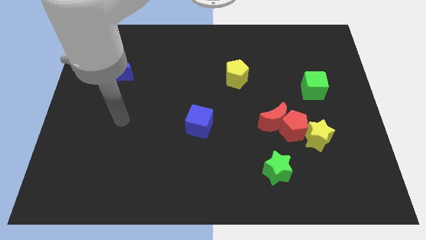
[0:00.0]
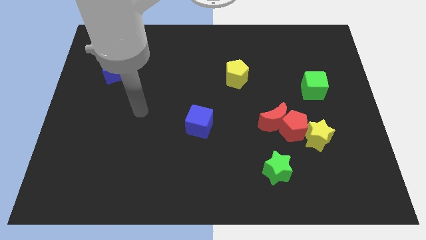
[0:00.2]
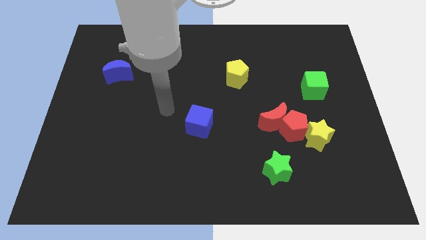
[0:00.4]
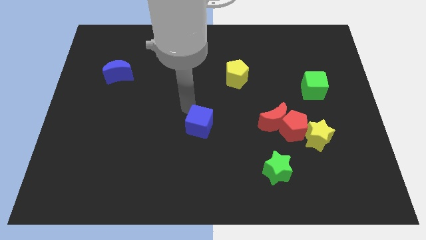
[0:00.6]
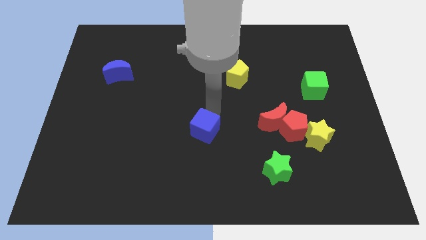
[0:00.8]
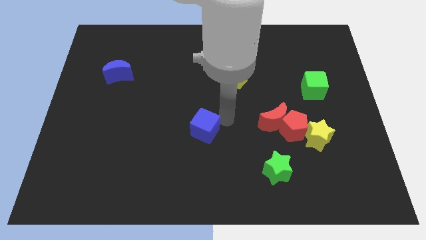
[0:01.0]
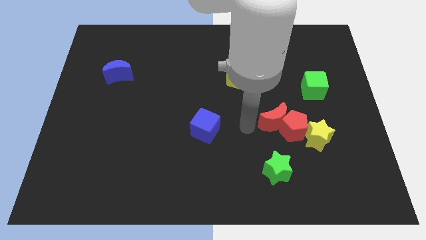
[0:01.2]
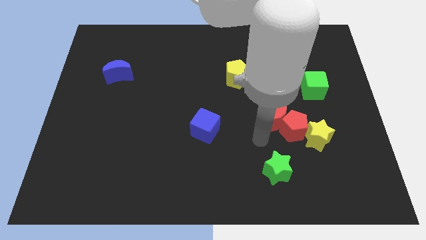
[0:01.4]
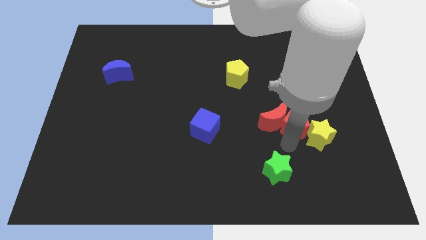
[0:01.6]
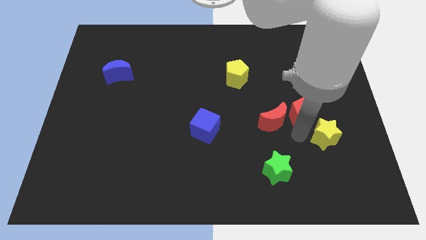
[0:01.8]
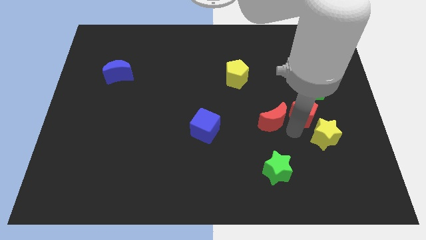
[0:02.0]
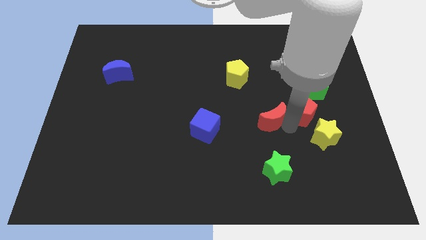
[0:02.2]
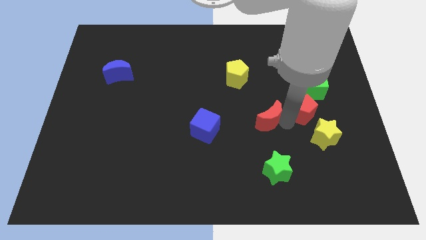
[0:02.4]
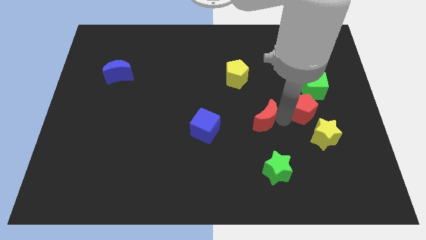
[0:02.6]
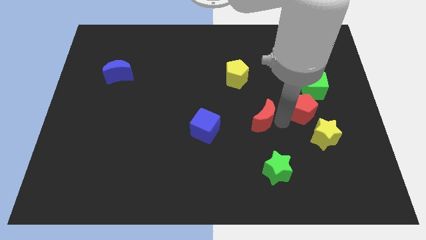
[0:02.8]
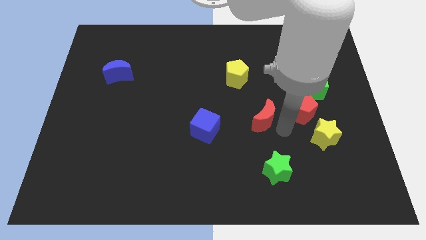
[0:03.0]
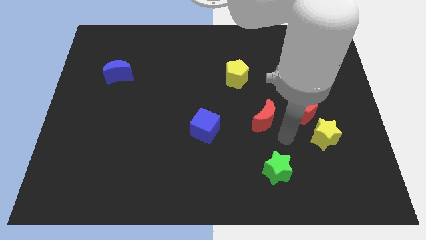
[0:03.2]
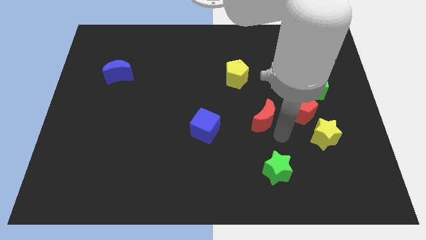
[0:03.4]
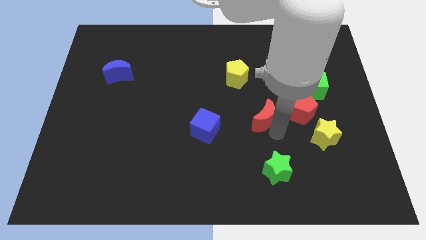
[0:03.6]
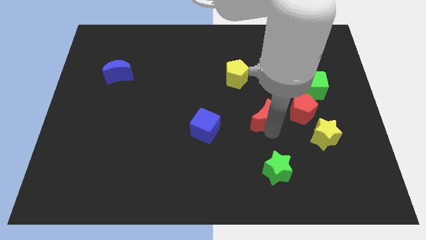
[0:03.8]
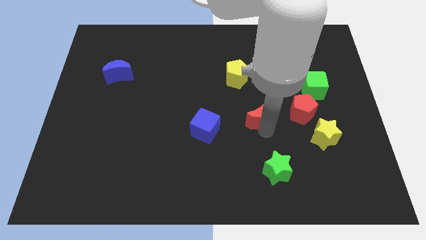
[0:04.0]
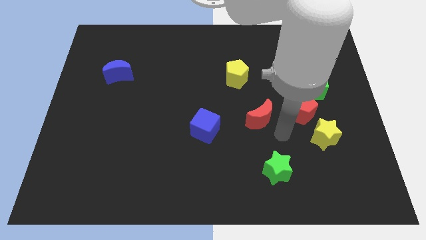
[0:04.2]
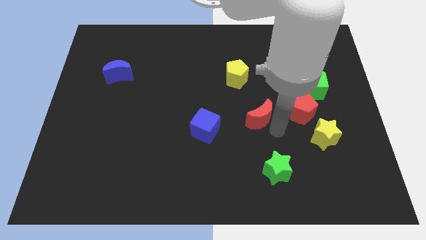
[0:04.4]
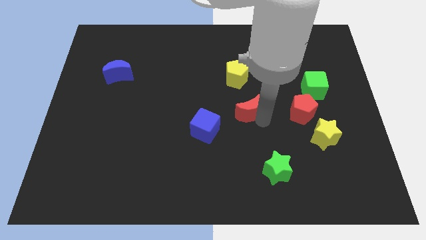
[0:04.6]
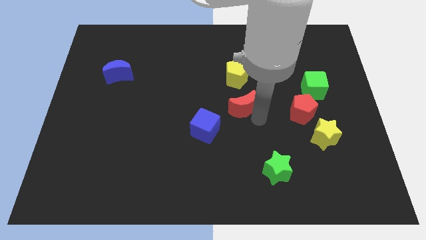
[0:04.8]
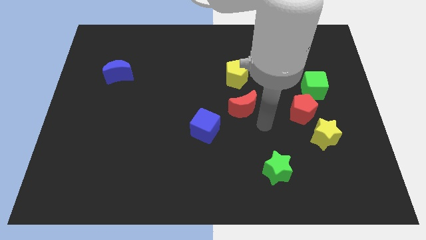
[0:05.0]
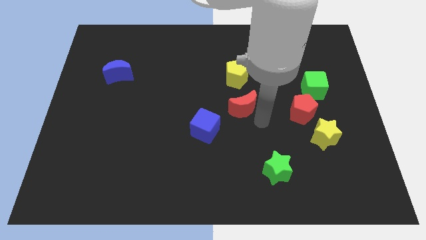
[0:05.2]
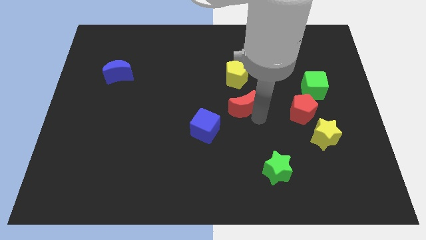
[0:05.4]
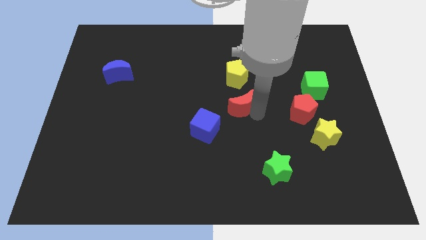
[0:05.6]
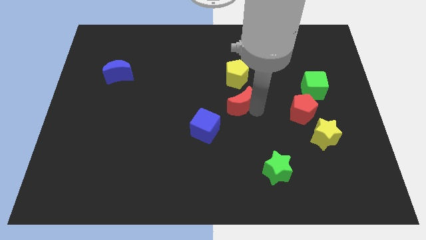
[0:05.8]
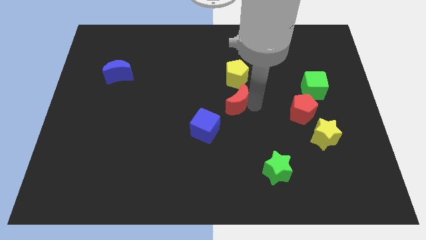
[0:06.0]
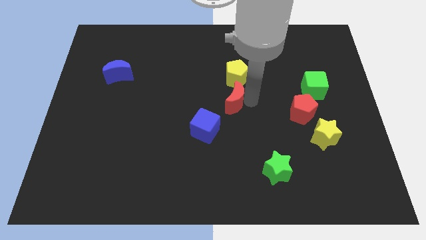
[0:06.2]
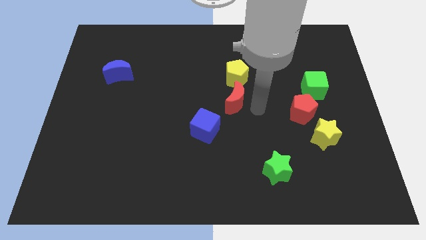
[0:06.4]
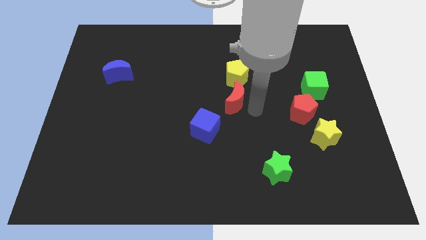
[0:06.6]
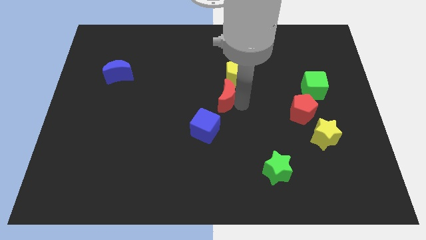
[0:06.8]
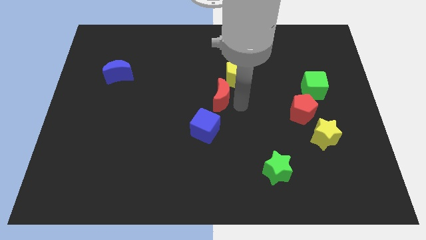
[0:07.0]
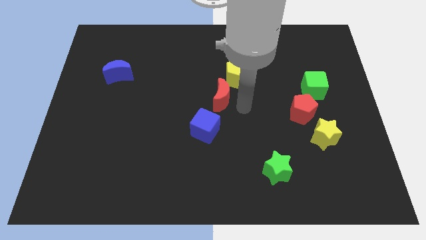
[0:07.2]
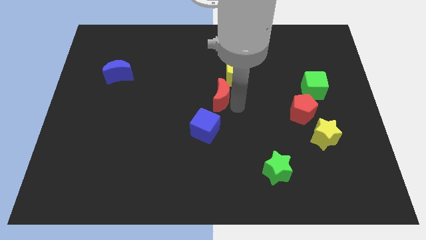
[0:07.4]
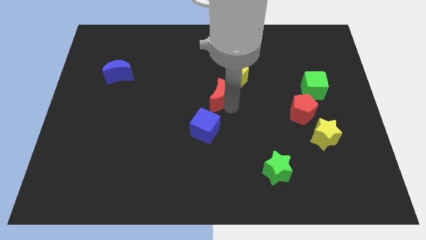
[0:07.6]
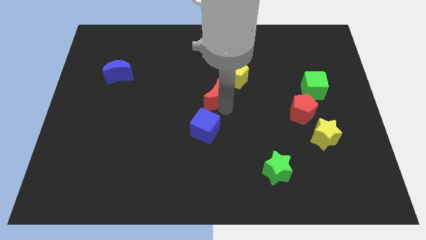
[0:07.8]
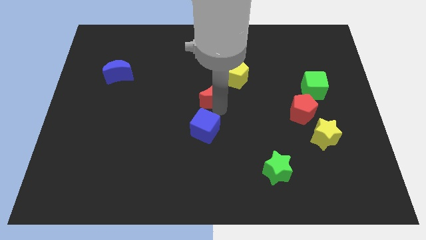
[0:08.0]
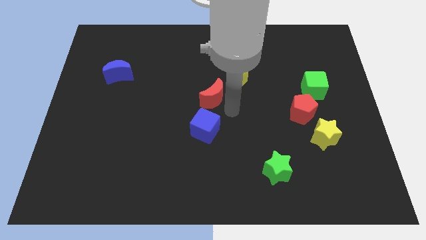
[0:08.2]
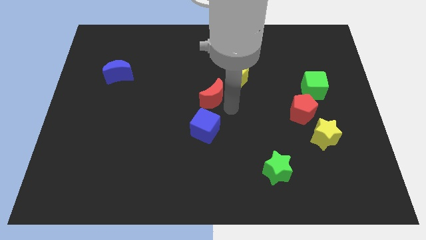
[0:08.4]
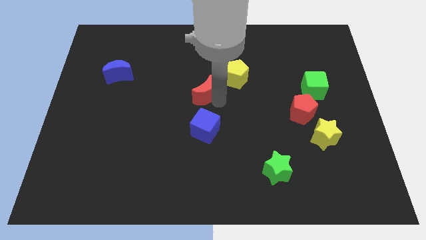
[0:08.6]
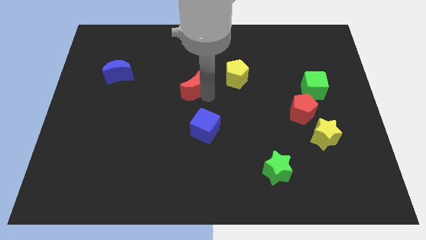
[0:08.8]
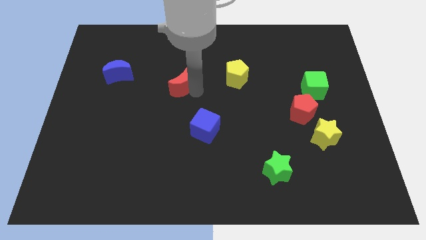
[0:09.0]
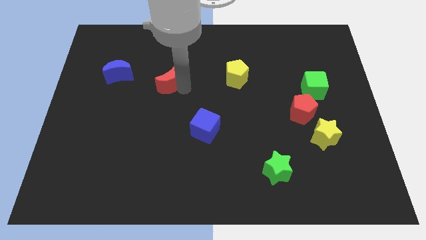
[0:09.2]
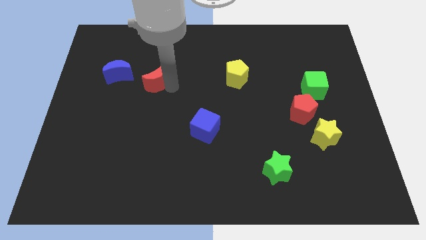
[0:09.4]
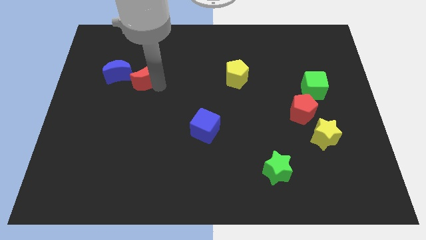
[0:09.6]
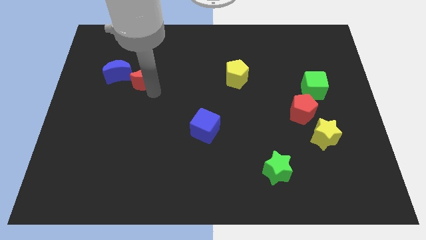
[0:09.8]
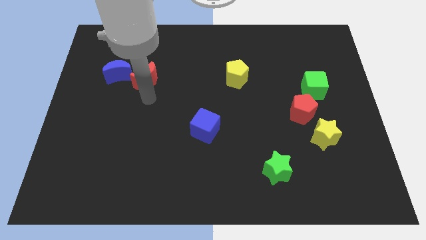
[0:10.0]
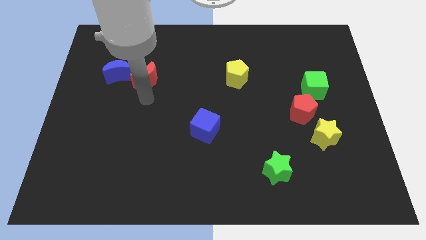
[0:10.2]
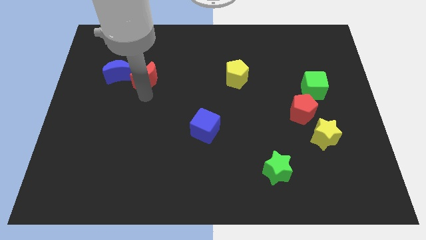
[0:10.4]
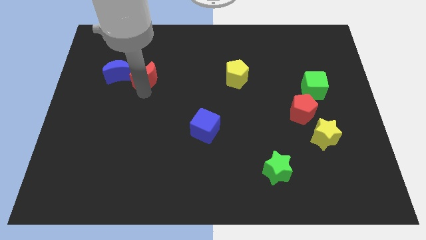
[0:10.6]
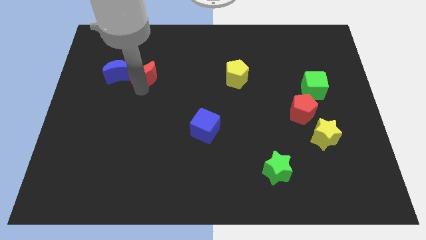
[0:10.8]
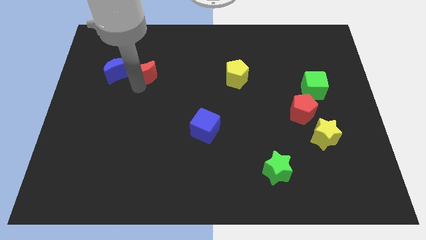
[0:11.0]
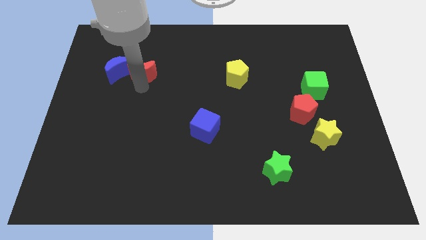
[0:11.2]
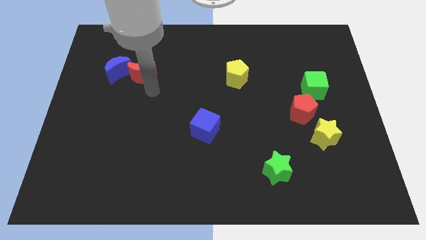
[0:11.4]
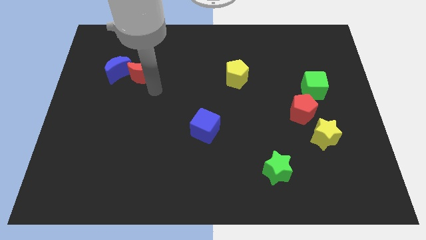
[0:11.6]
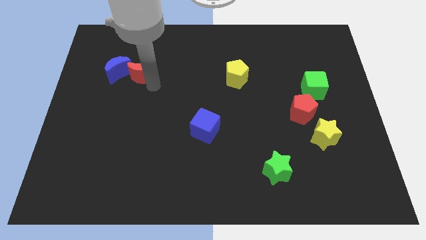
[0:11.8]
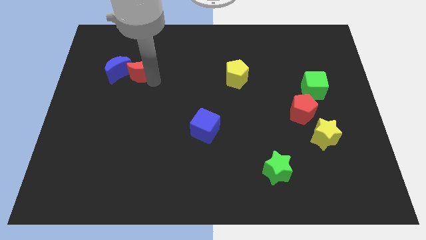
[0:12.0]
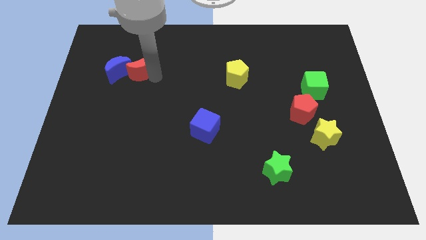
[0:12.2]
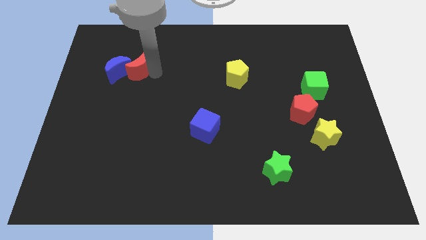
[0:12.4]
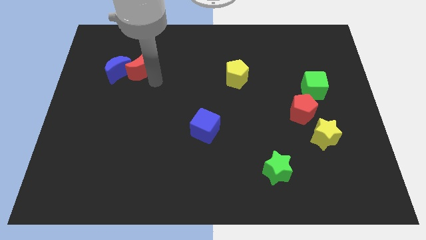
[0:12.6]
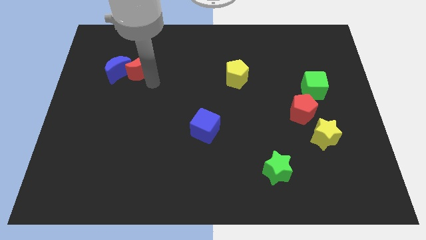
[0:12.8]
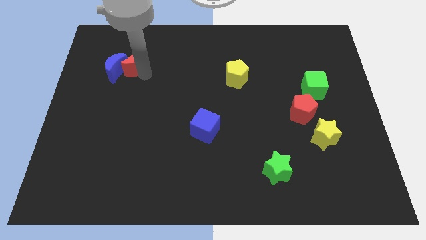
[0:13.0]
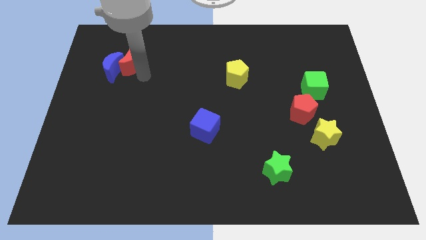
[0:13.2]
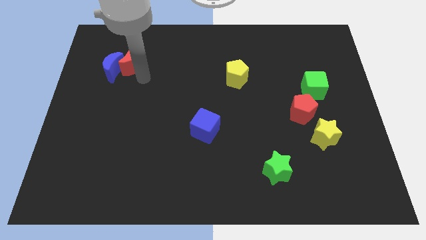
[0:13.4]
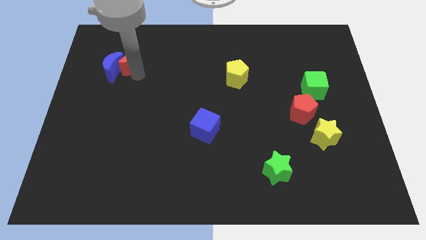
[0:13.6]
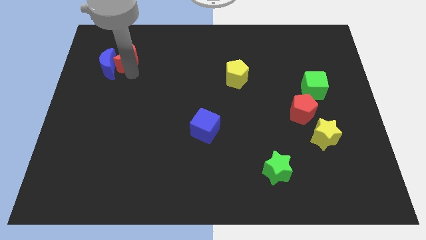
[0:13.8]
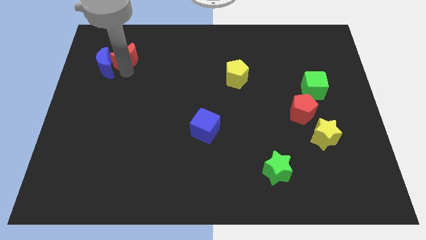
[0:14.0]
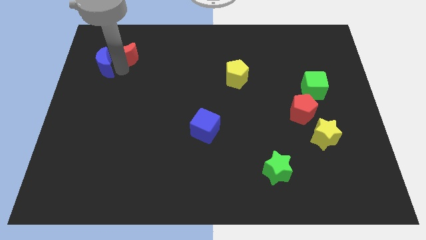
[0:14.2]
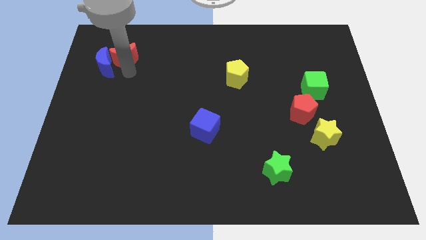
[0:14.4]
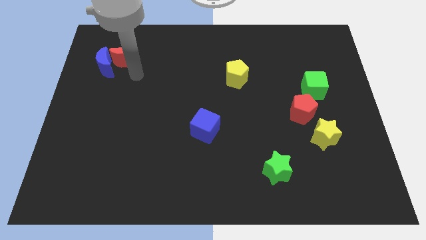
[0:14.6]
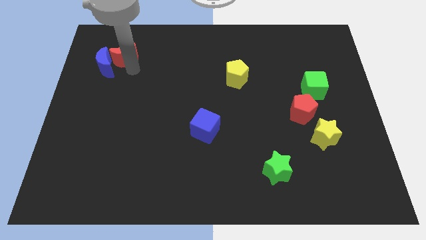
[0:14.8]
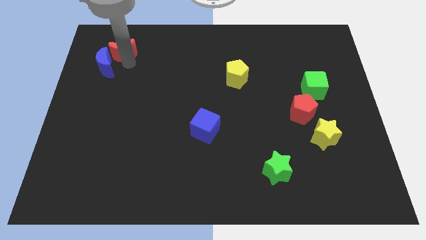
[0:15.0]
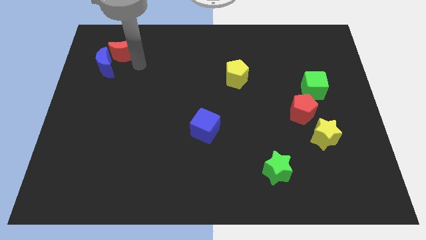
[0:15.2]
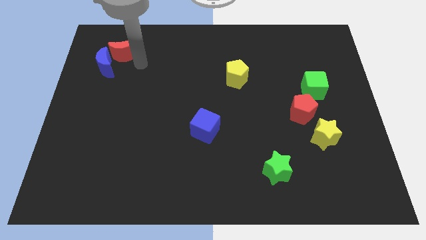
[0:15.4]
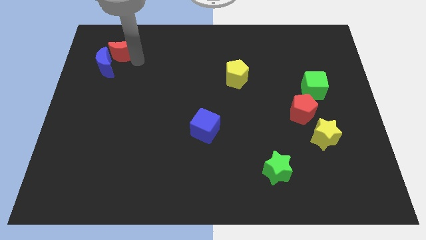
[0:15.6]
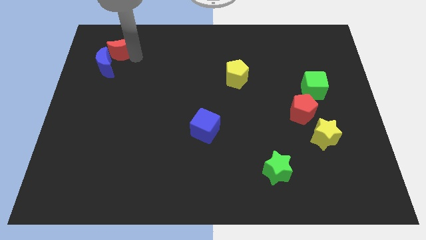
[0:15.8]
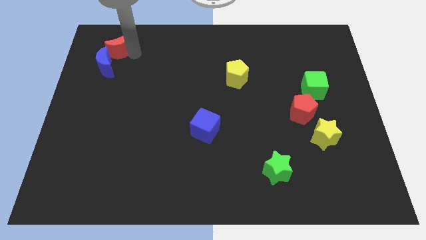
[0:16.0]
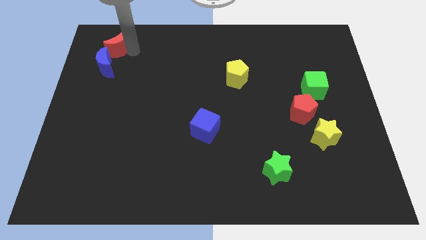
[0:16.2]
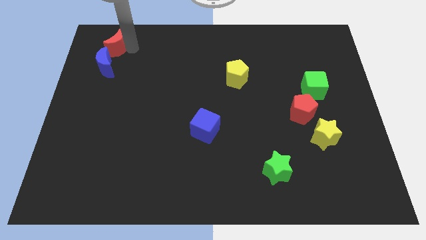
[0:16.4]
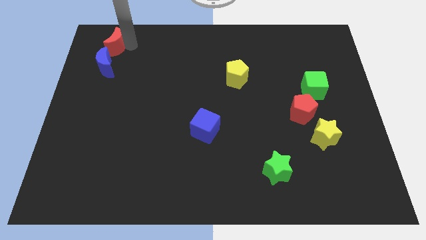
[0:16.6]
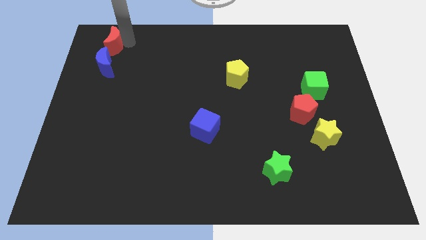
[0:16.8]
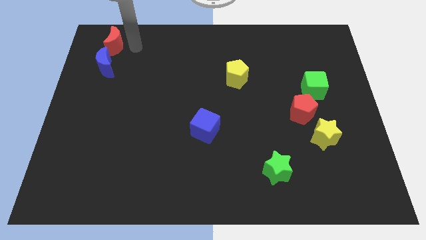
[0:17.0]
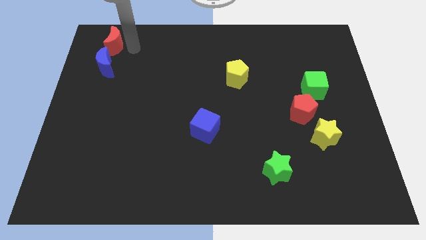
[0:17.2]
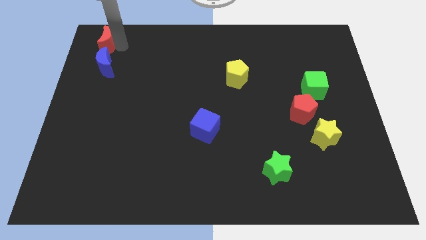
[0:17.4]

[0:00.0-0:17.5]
push the red moon to the top left corner
